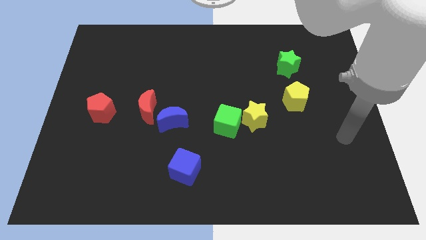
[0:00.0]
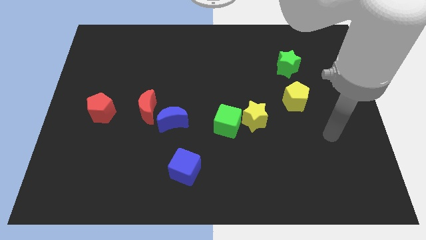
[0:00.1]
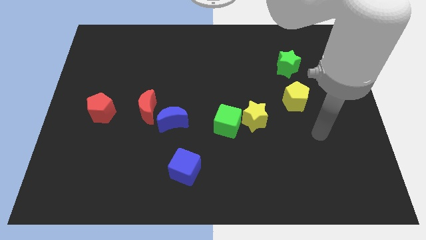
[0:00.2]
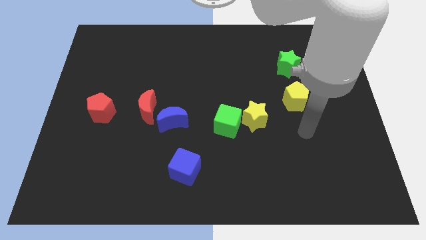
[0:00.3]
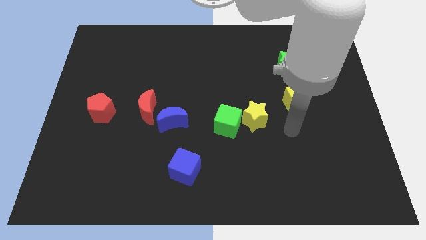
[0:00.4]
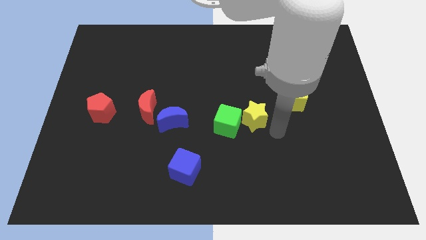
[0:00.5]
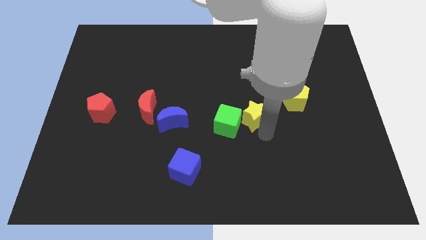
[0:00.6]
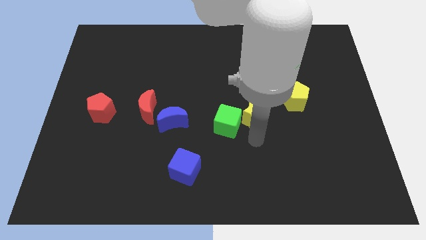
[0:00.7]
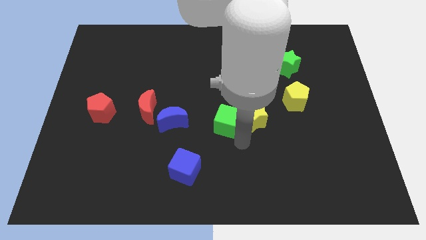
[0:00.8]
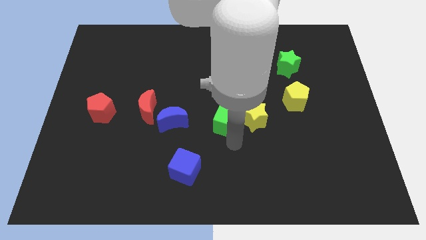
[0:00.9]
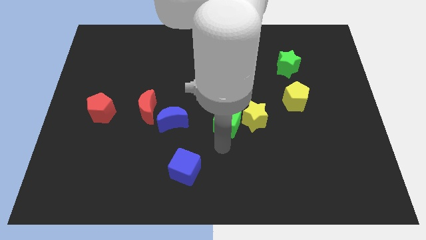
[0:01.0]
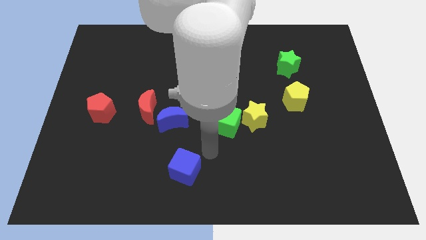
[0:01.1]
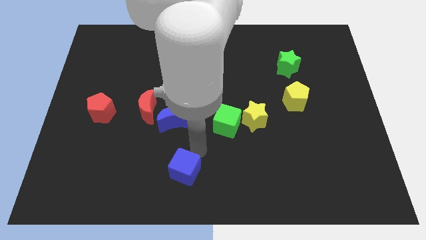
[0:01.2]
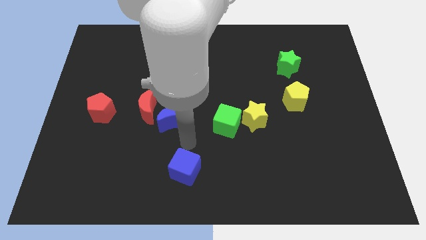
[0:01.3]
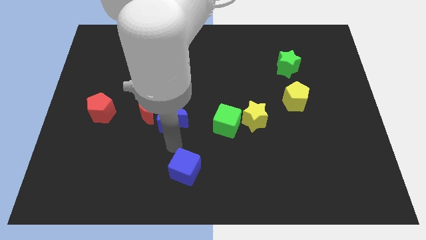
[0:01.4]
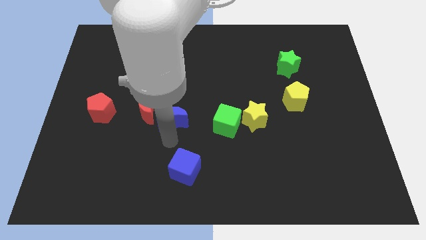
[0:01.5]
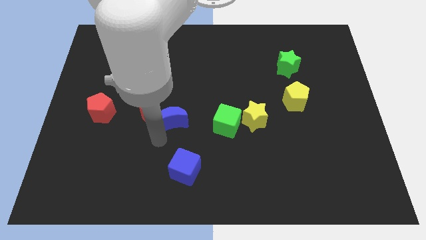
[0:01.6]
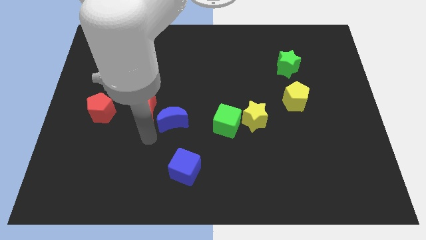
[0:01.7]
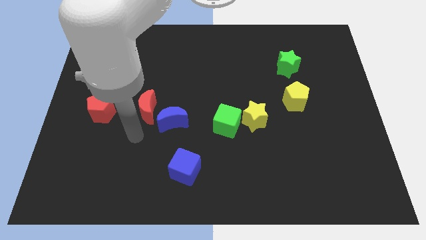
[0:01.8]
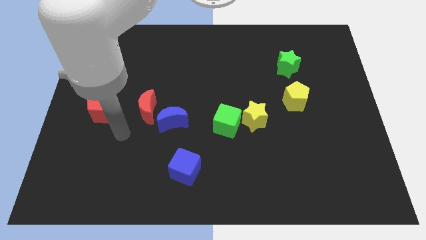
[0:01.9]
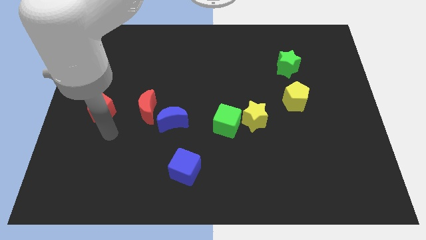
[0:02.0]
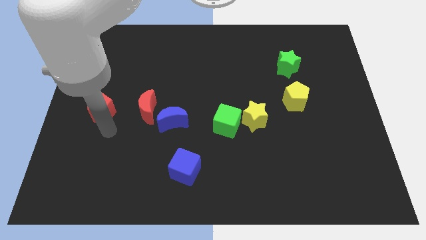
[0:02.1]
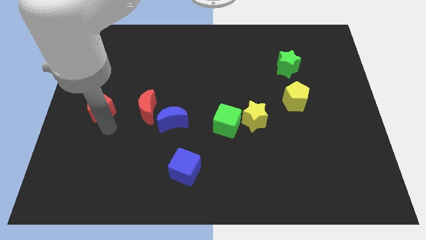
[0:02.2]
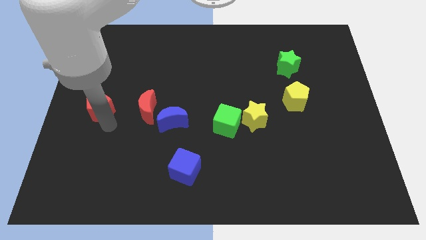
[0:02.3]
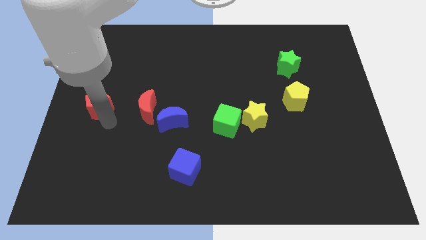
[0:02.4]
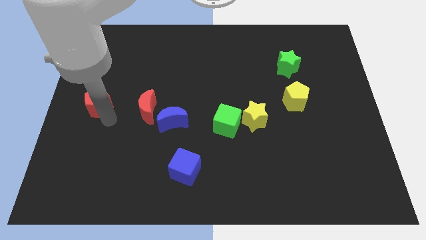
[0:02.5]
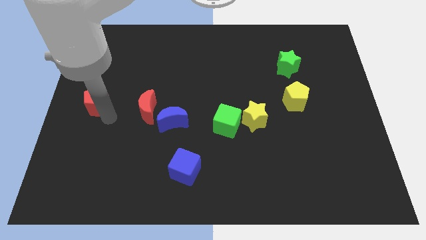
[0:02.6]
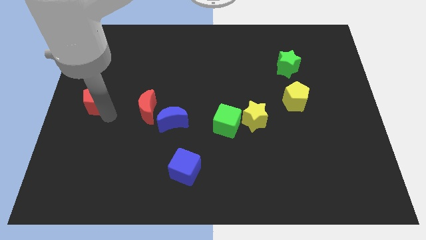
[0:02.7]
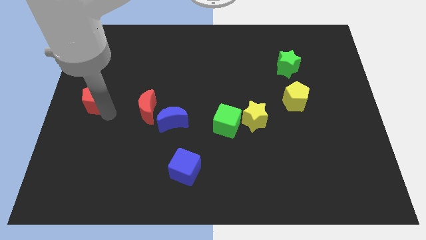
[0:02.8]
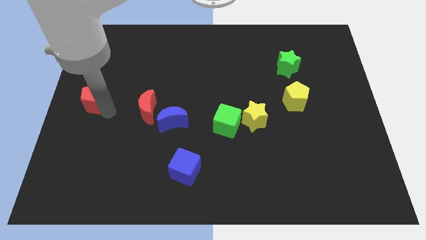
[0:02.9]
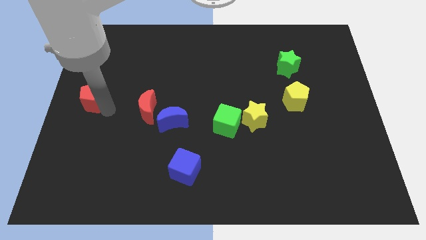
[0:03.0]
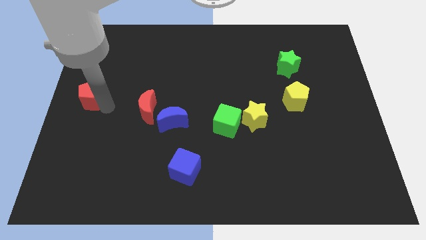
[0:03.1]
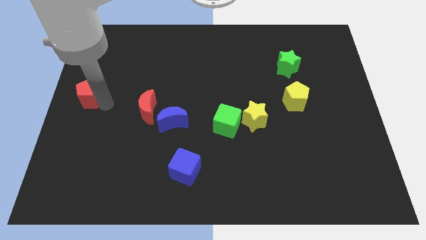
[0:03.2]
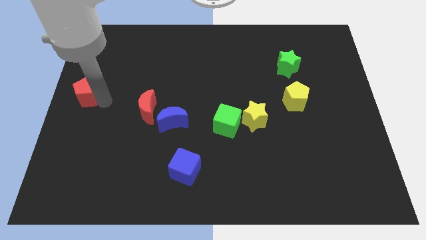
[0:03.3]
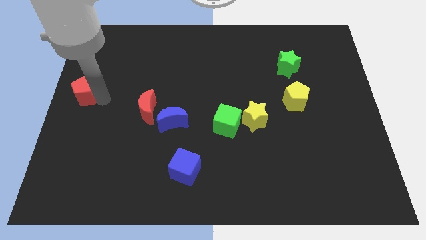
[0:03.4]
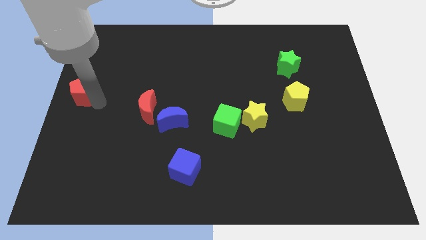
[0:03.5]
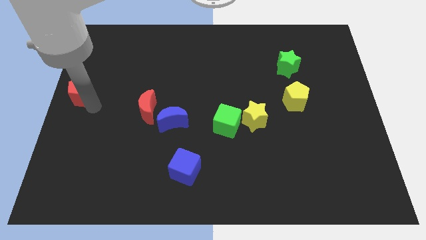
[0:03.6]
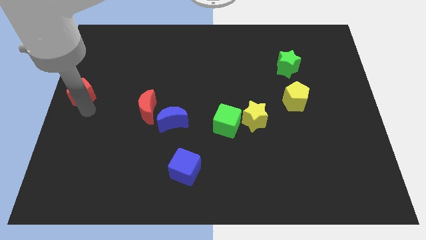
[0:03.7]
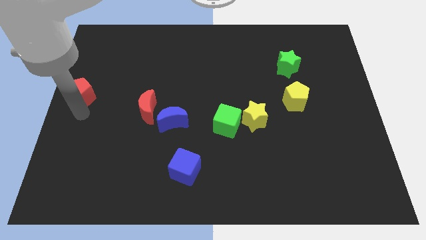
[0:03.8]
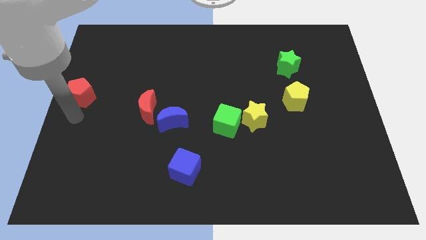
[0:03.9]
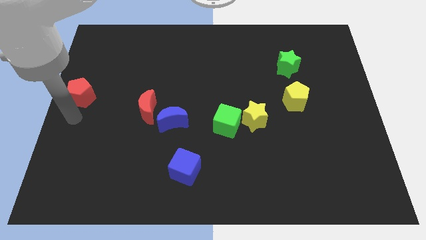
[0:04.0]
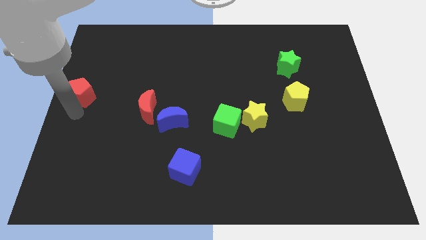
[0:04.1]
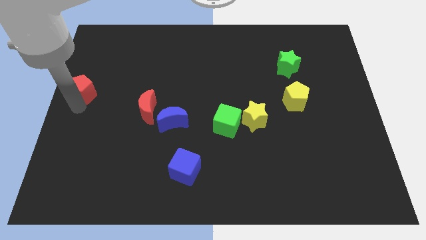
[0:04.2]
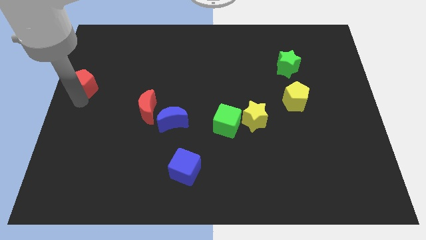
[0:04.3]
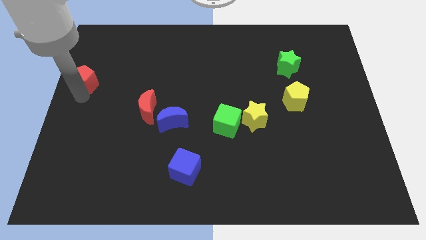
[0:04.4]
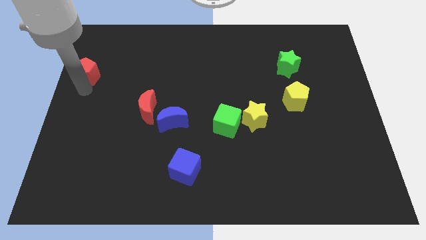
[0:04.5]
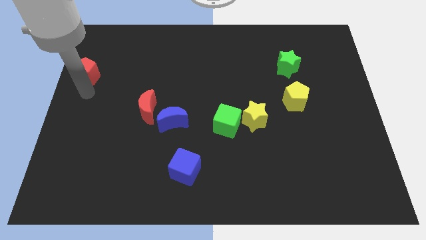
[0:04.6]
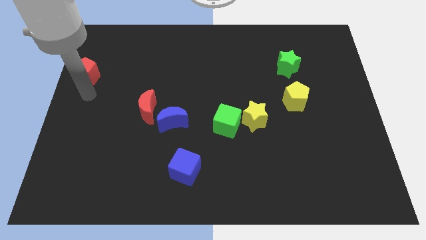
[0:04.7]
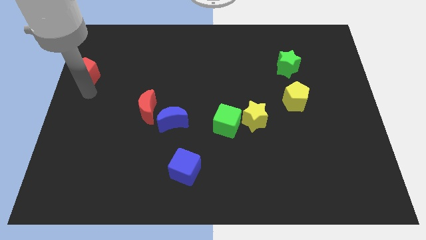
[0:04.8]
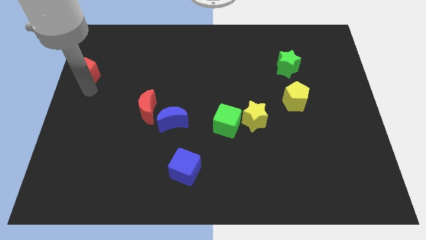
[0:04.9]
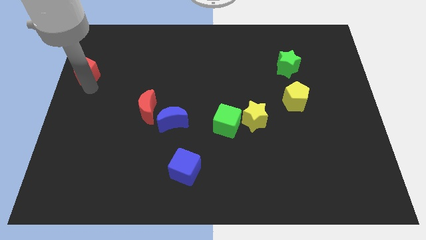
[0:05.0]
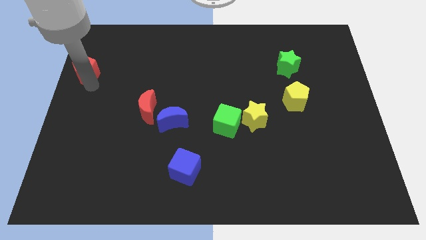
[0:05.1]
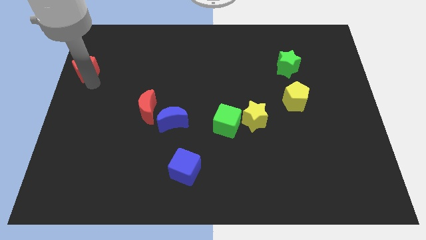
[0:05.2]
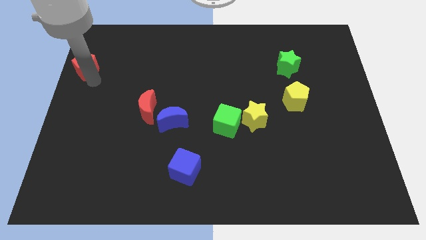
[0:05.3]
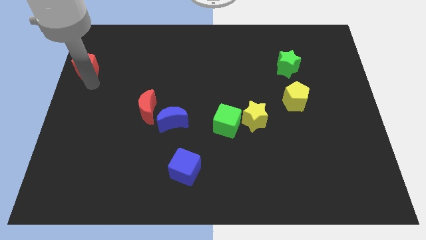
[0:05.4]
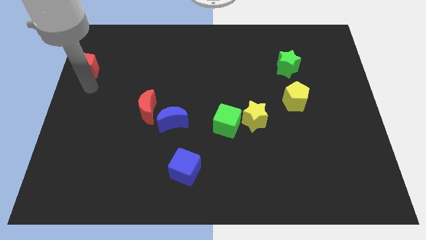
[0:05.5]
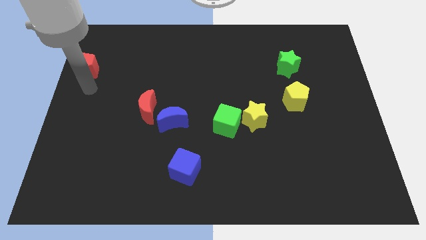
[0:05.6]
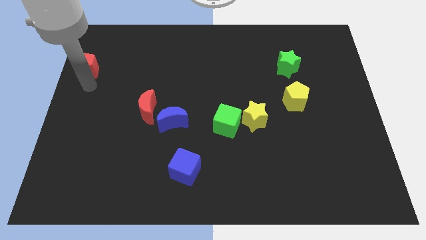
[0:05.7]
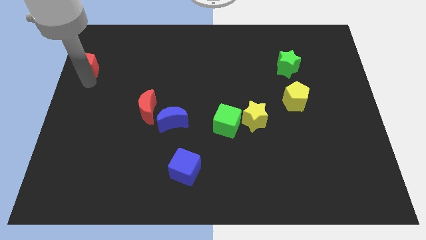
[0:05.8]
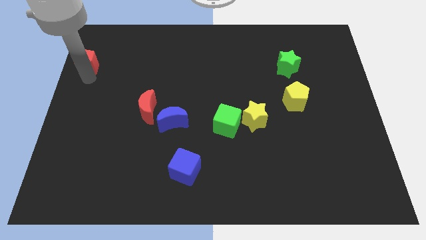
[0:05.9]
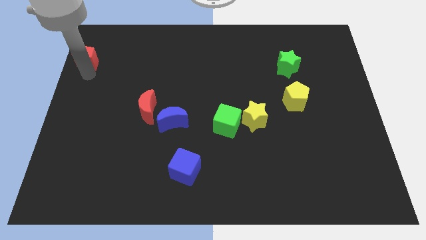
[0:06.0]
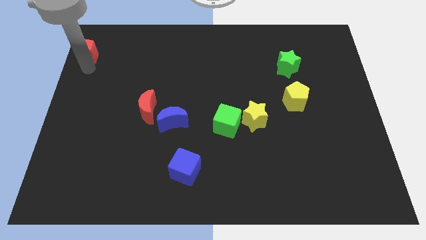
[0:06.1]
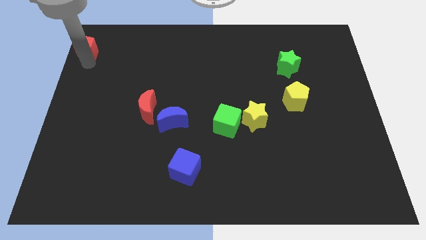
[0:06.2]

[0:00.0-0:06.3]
put the red pentagon to the upper left corner

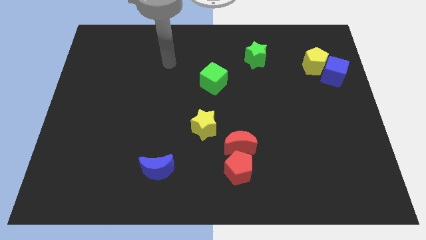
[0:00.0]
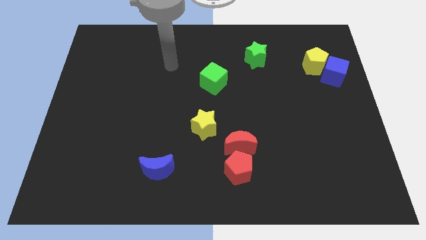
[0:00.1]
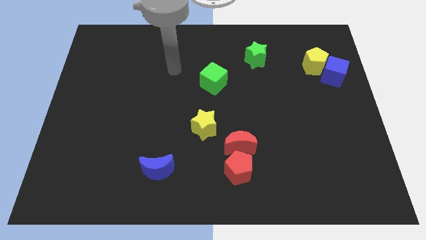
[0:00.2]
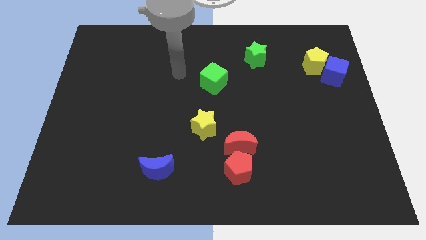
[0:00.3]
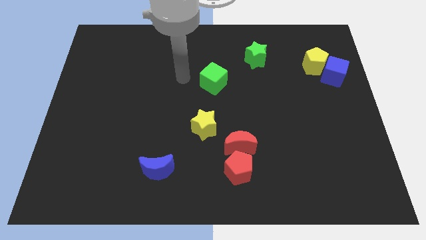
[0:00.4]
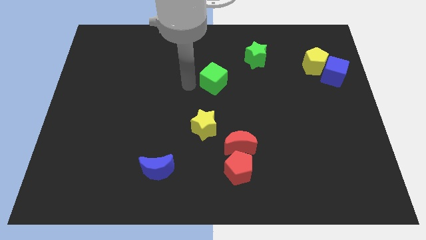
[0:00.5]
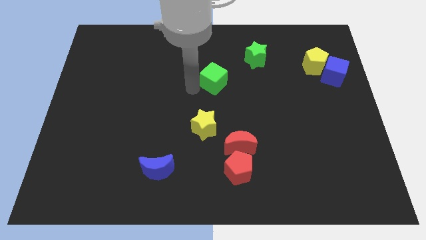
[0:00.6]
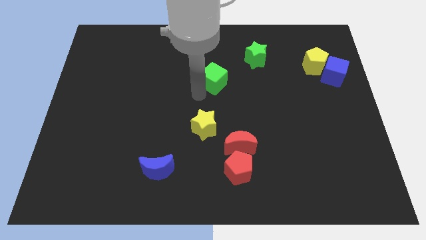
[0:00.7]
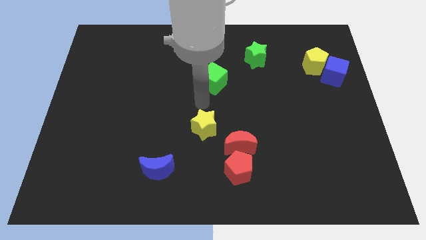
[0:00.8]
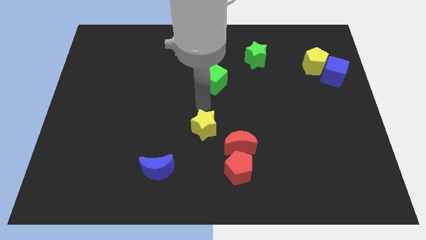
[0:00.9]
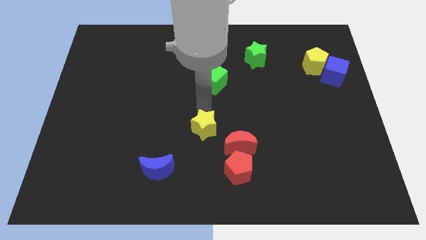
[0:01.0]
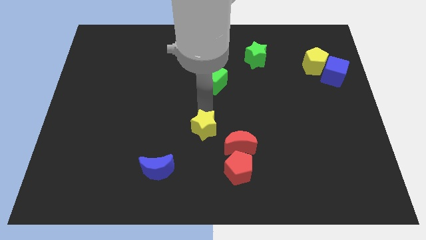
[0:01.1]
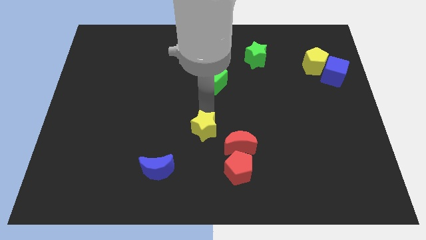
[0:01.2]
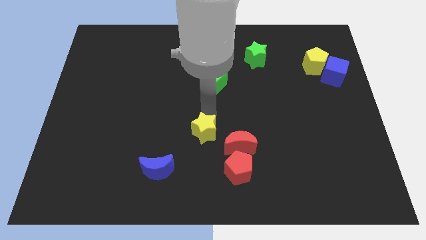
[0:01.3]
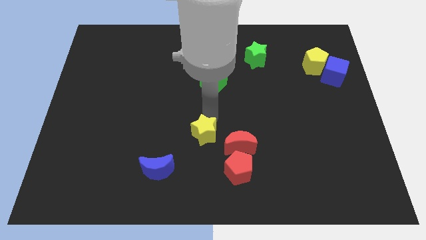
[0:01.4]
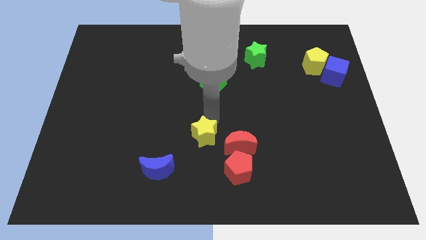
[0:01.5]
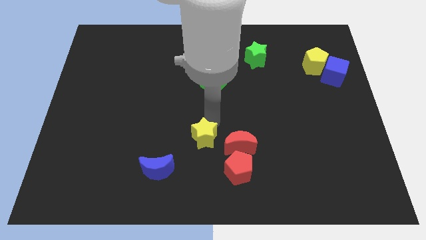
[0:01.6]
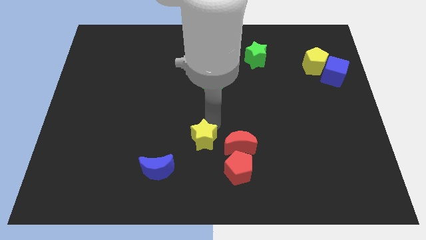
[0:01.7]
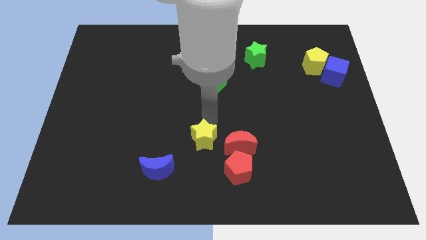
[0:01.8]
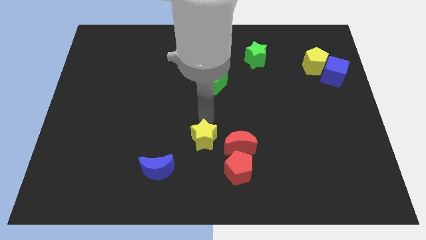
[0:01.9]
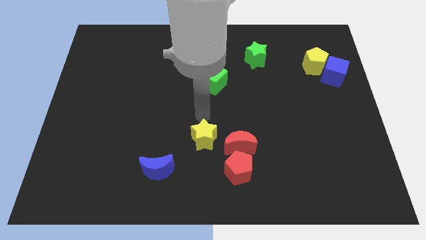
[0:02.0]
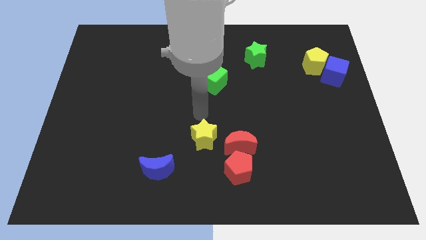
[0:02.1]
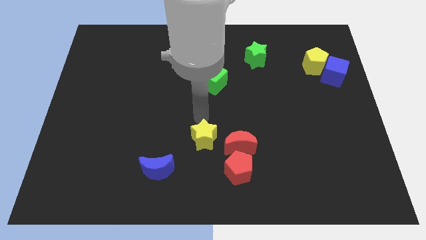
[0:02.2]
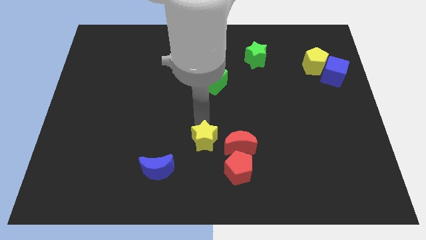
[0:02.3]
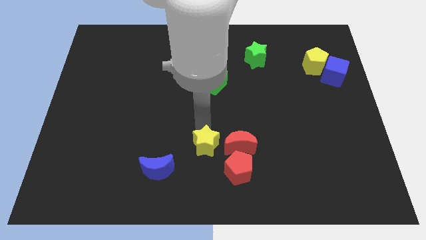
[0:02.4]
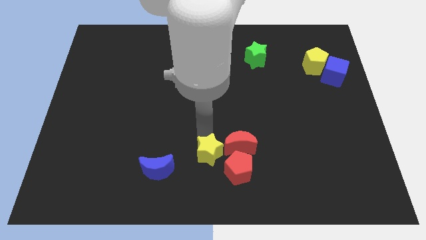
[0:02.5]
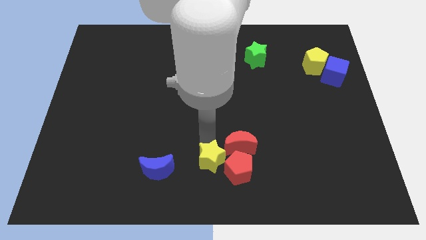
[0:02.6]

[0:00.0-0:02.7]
move the yellow star to the bottom
